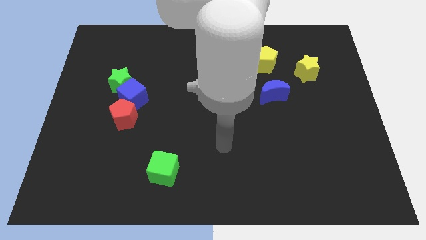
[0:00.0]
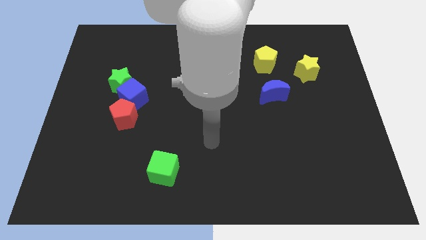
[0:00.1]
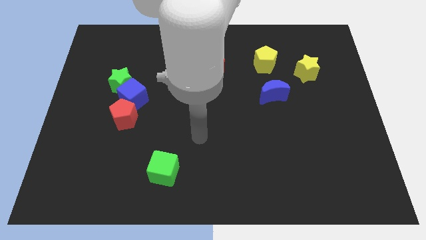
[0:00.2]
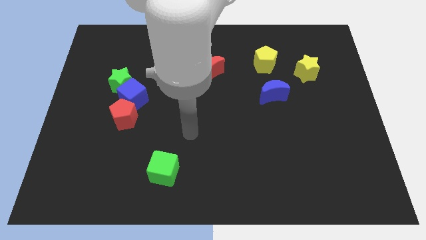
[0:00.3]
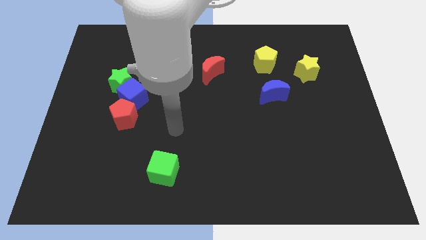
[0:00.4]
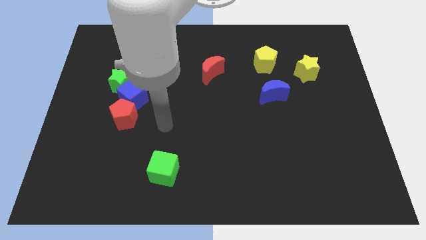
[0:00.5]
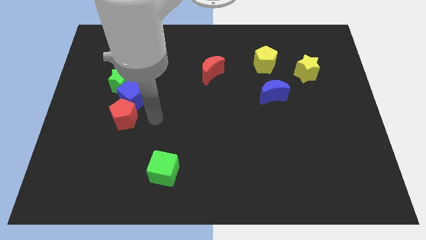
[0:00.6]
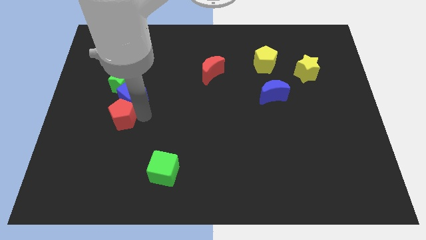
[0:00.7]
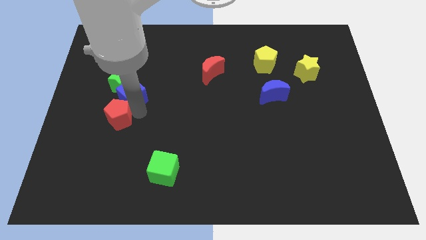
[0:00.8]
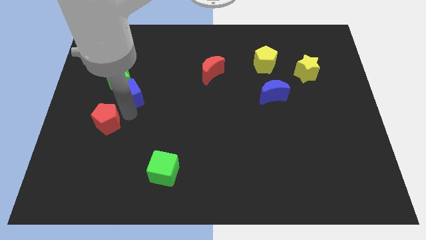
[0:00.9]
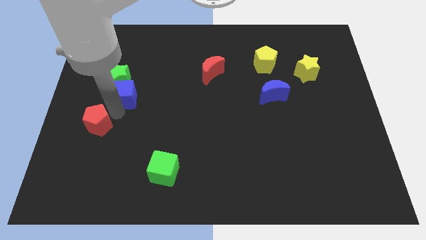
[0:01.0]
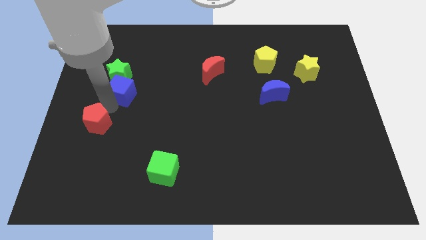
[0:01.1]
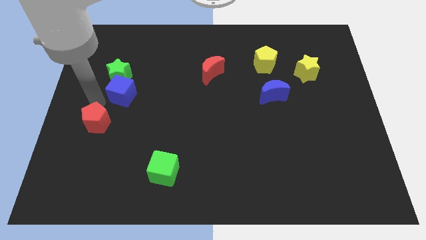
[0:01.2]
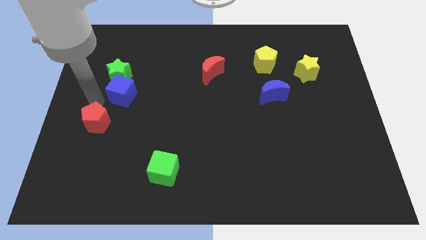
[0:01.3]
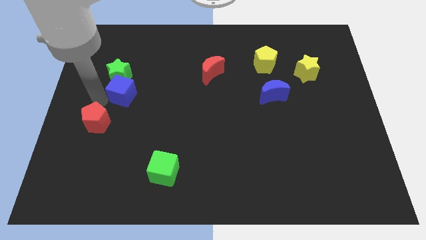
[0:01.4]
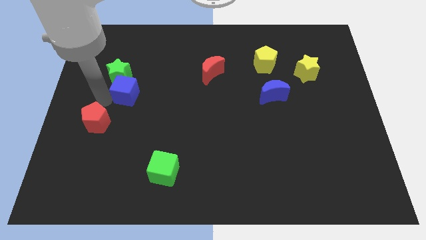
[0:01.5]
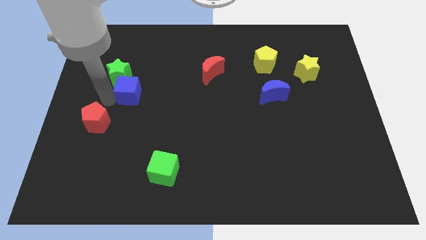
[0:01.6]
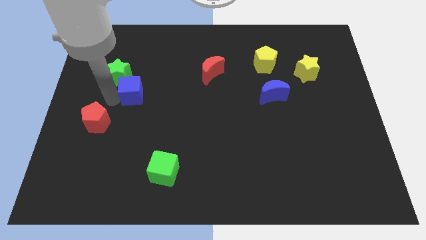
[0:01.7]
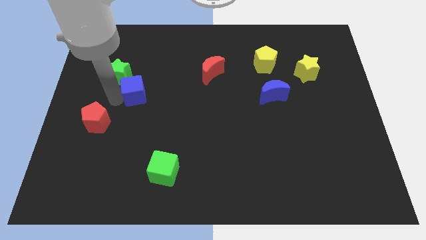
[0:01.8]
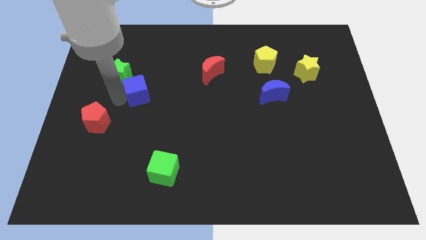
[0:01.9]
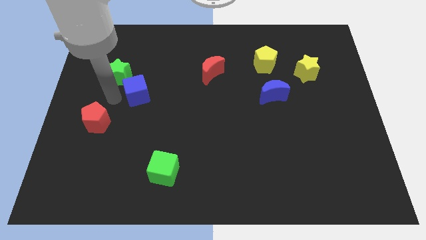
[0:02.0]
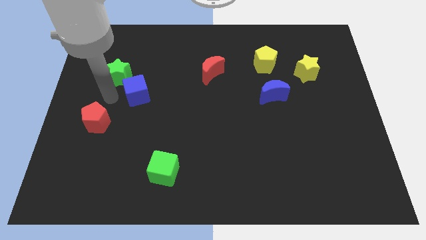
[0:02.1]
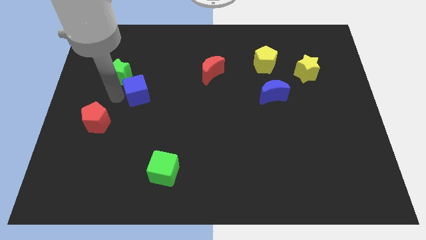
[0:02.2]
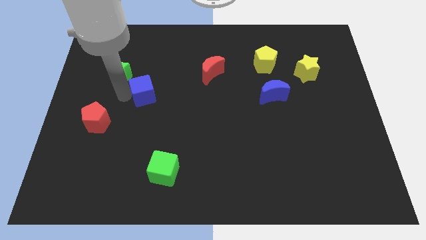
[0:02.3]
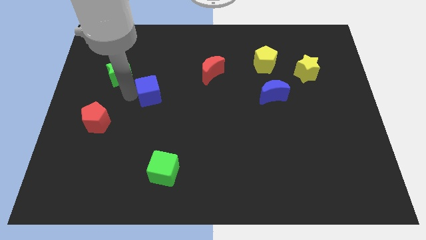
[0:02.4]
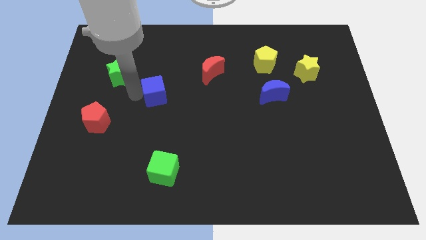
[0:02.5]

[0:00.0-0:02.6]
move the blue cube away from the green star and red pentagon

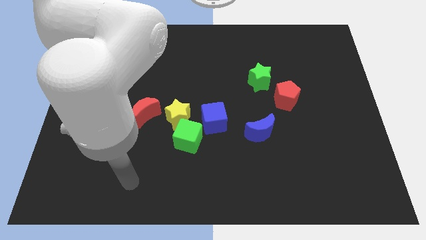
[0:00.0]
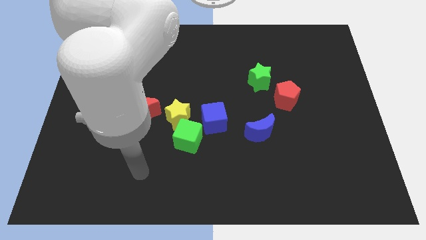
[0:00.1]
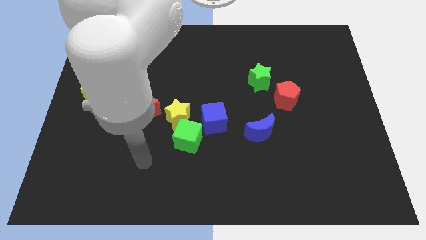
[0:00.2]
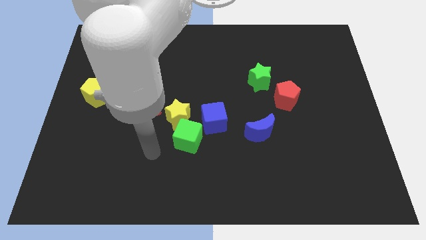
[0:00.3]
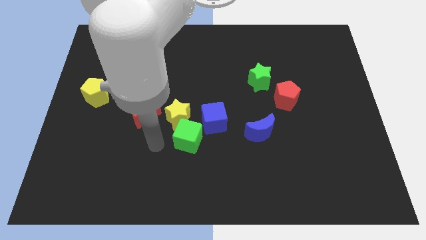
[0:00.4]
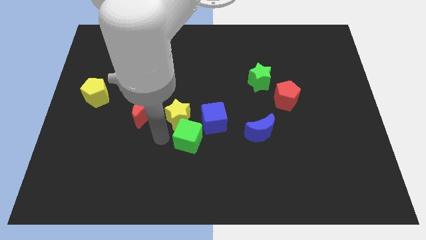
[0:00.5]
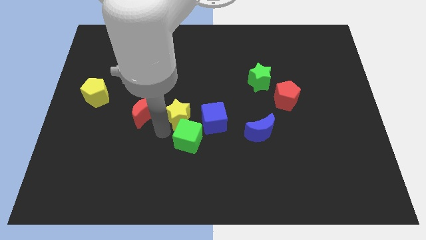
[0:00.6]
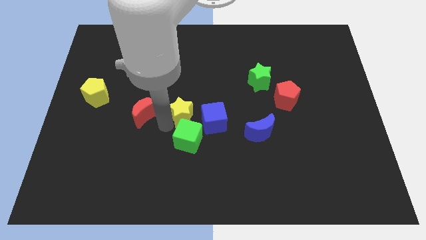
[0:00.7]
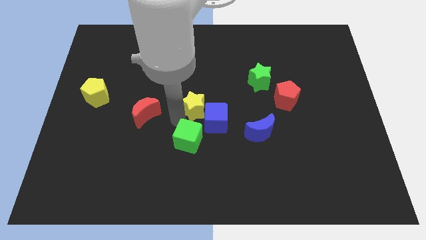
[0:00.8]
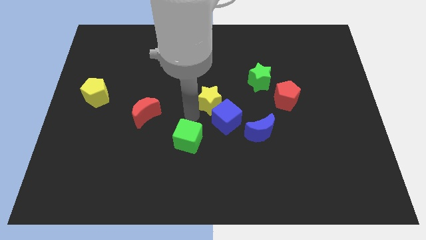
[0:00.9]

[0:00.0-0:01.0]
move the green cube away from the yellow star and blue cube

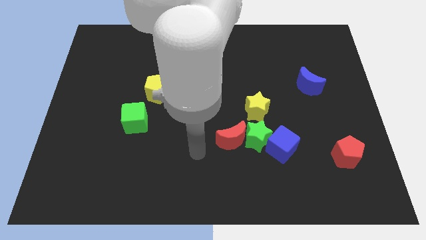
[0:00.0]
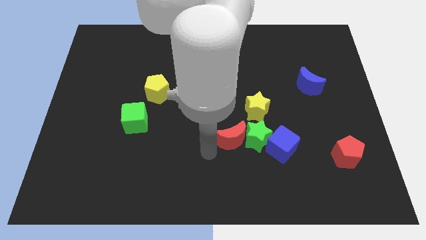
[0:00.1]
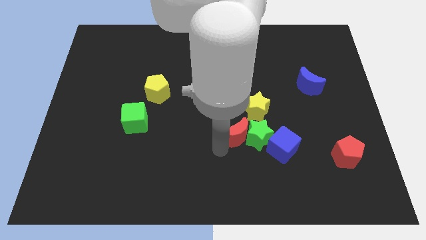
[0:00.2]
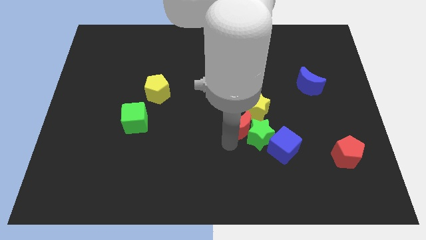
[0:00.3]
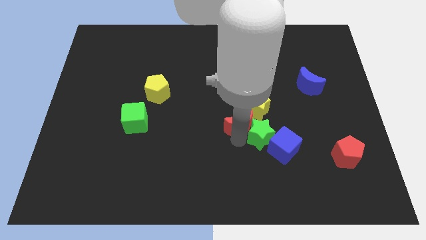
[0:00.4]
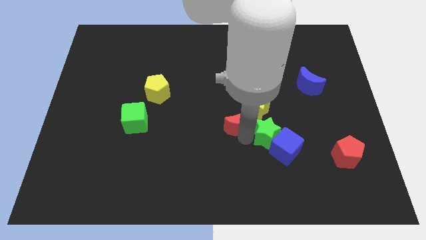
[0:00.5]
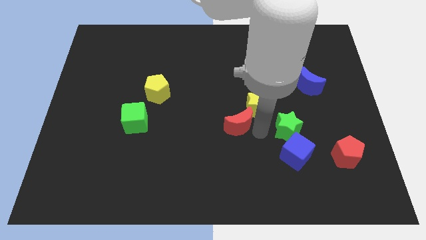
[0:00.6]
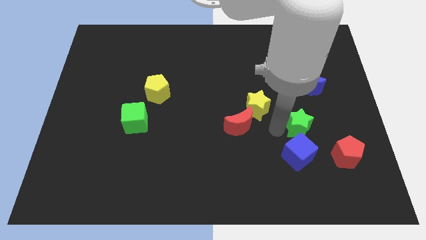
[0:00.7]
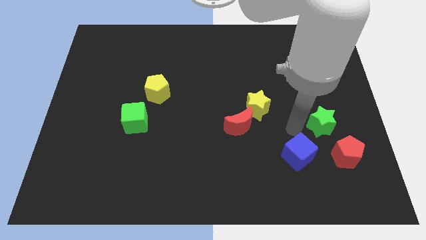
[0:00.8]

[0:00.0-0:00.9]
move the blue cube away from the green star

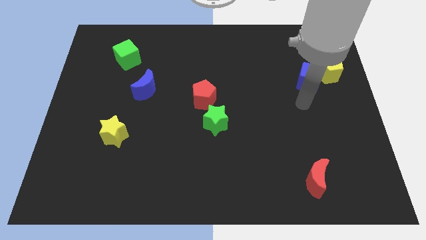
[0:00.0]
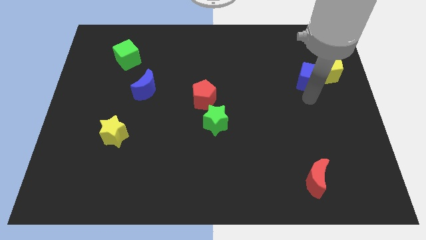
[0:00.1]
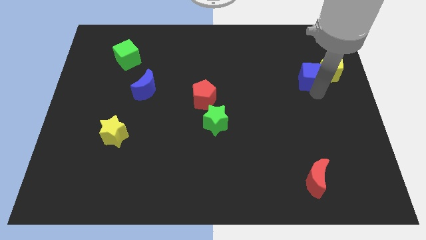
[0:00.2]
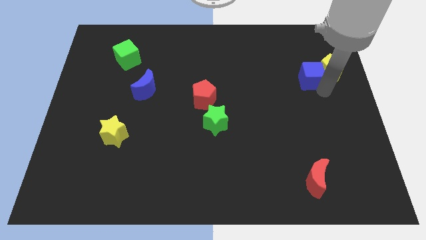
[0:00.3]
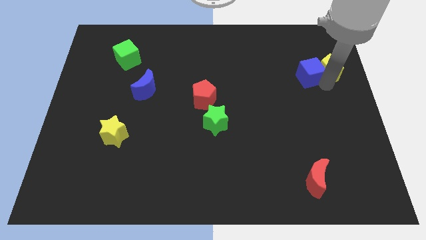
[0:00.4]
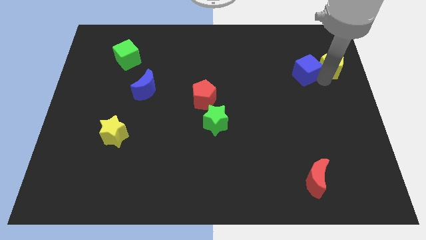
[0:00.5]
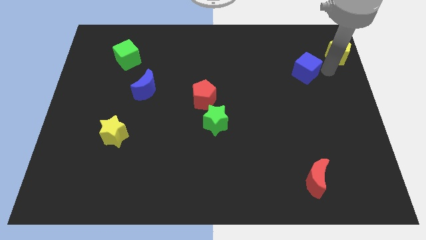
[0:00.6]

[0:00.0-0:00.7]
separate the blue cube from the yellow pentagon

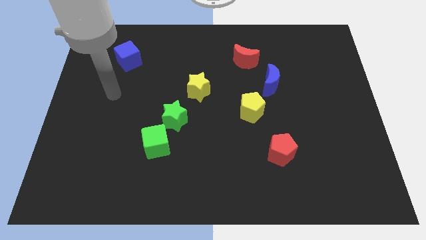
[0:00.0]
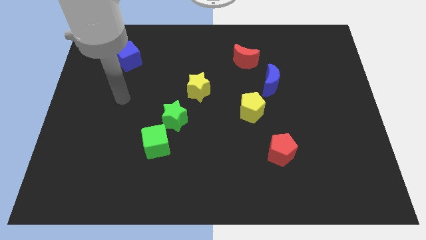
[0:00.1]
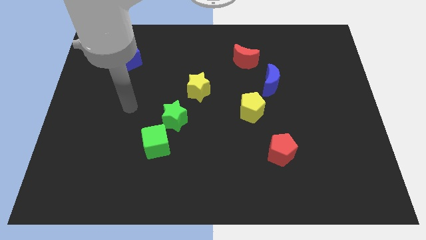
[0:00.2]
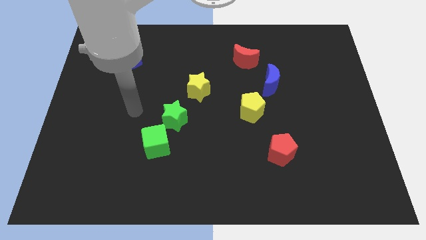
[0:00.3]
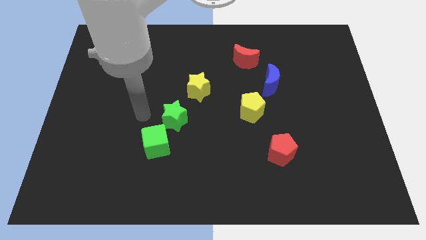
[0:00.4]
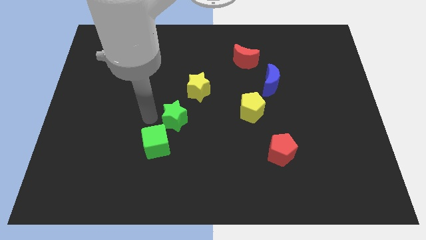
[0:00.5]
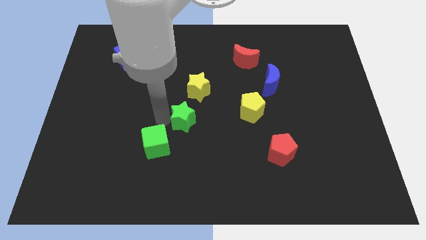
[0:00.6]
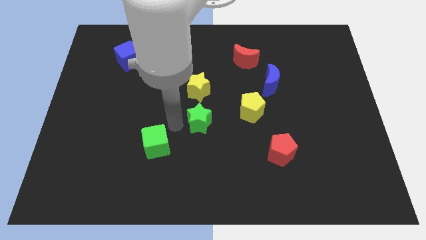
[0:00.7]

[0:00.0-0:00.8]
move the green cube away from the green star

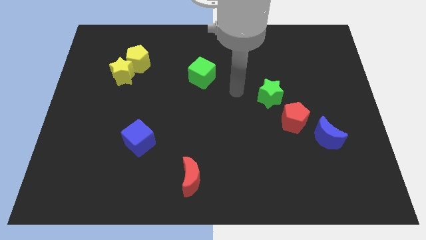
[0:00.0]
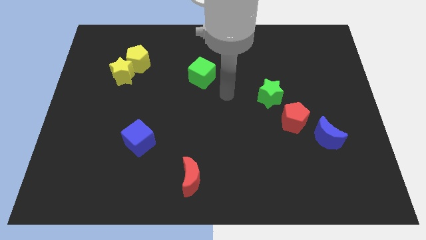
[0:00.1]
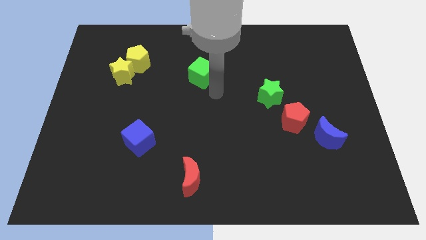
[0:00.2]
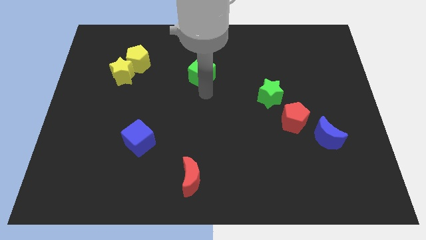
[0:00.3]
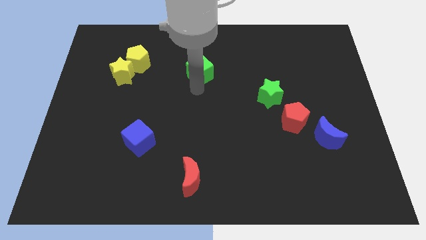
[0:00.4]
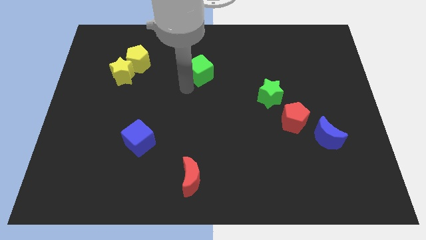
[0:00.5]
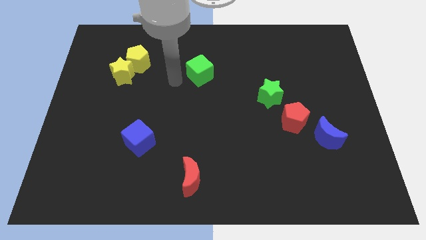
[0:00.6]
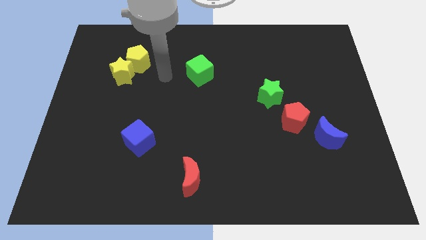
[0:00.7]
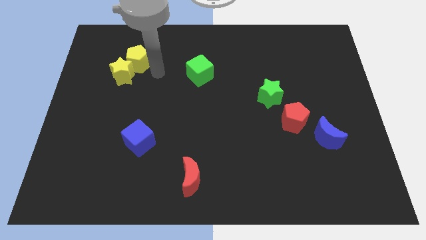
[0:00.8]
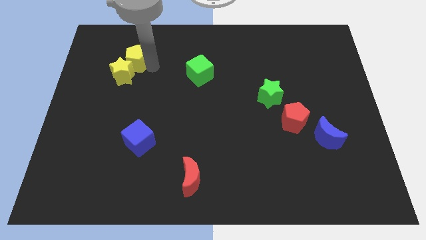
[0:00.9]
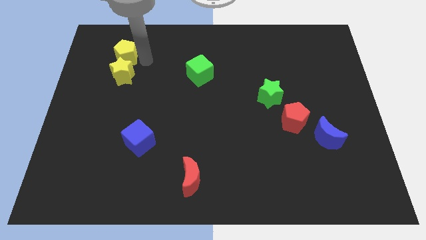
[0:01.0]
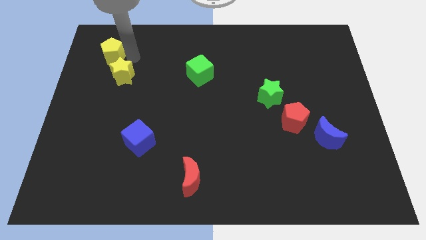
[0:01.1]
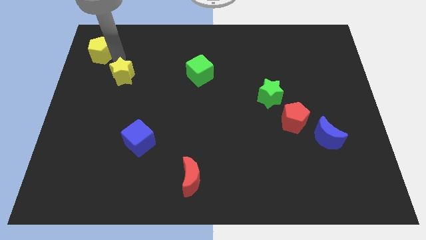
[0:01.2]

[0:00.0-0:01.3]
separate the yellow star from the yellow pentagon

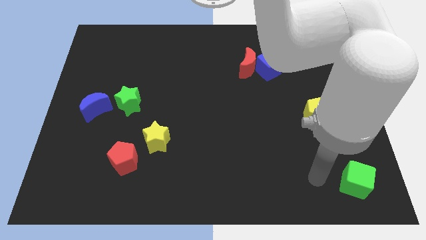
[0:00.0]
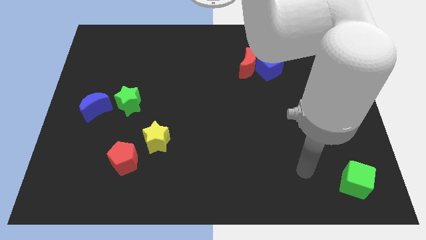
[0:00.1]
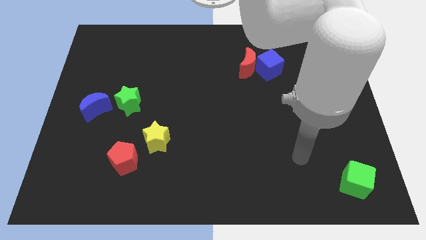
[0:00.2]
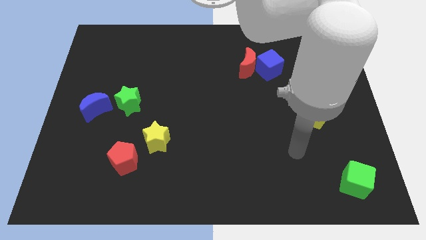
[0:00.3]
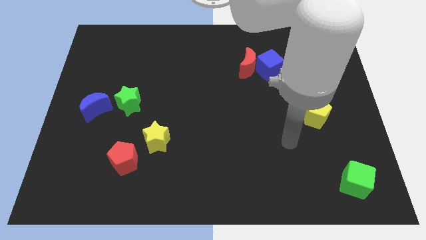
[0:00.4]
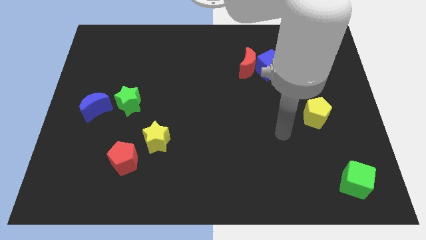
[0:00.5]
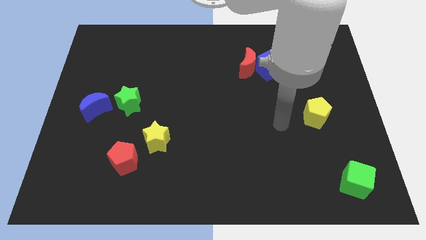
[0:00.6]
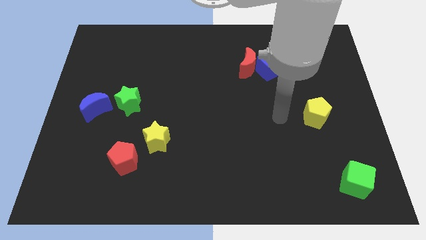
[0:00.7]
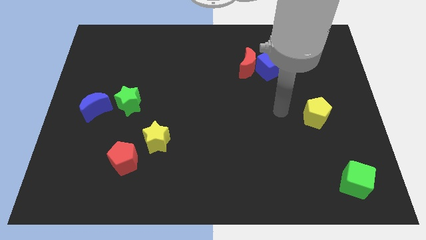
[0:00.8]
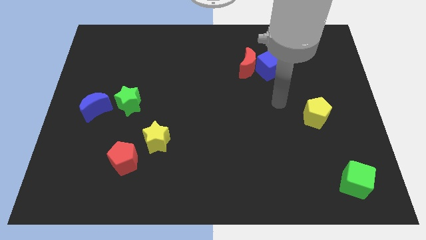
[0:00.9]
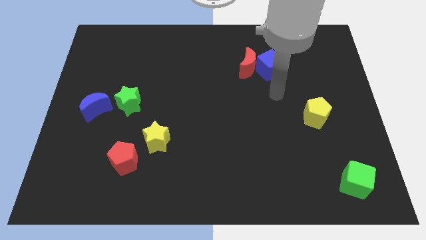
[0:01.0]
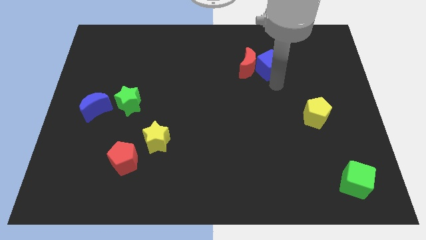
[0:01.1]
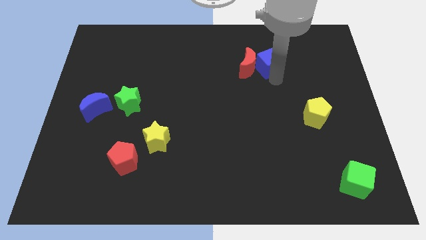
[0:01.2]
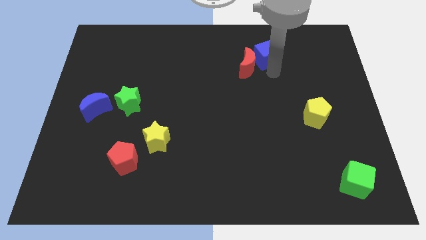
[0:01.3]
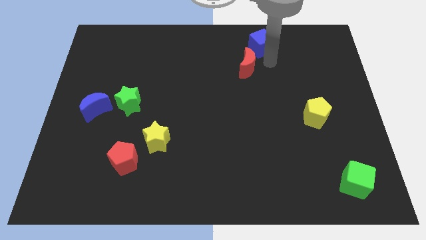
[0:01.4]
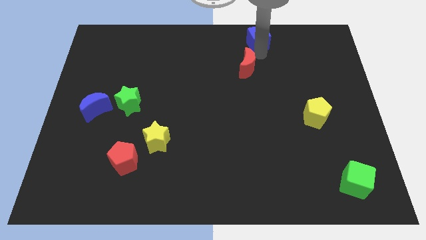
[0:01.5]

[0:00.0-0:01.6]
pull the red moon apart from the blue cube

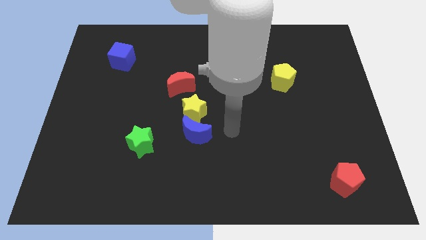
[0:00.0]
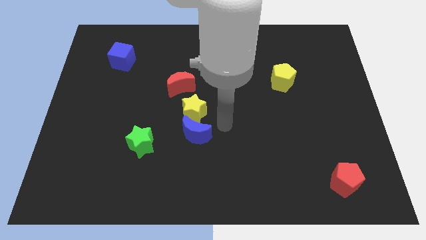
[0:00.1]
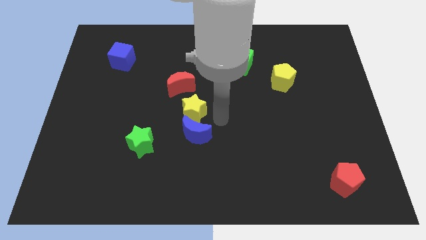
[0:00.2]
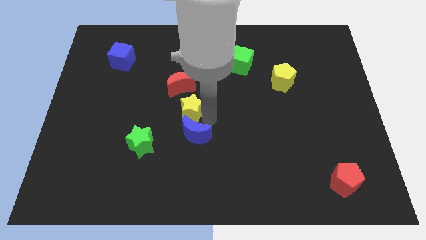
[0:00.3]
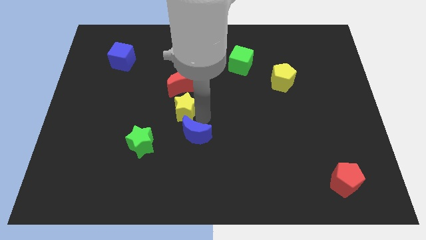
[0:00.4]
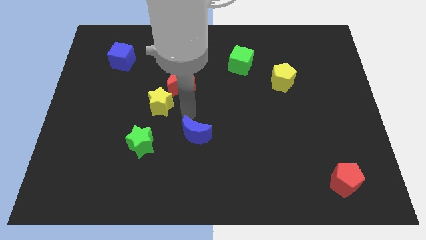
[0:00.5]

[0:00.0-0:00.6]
pull the blue moon apart from the yellow star
